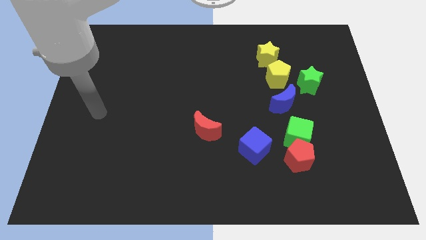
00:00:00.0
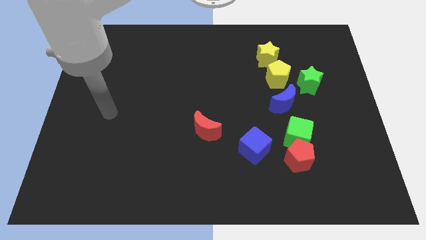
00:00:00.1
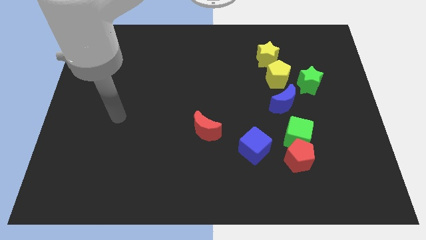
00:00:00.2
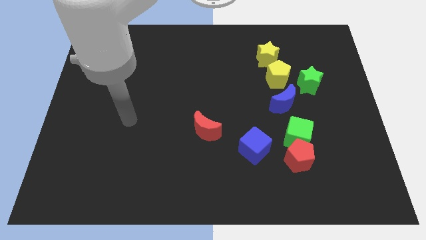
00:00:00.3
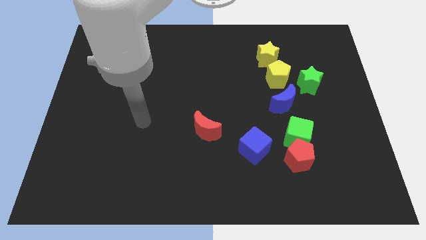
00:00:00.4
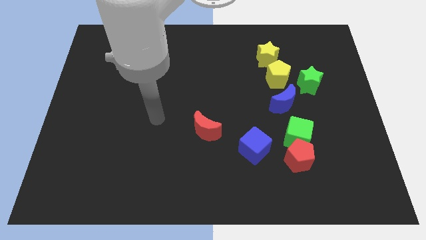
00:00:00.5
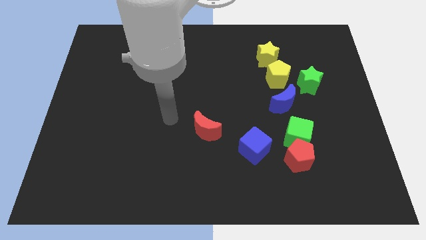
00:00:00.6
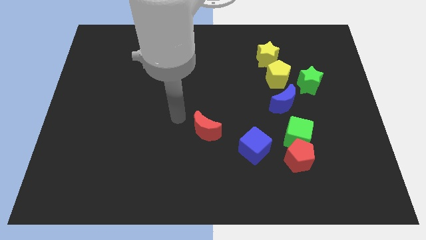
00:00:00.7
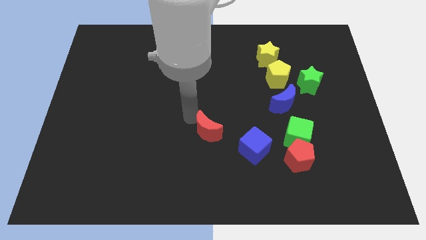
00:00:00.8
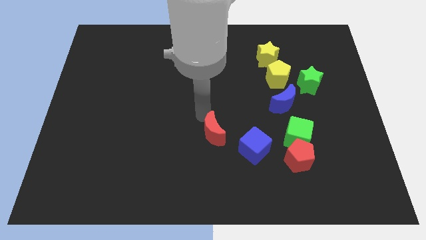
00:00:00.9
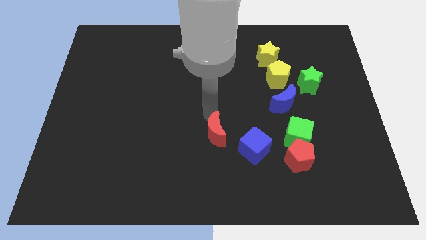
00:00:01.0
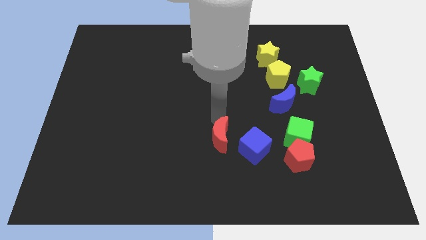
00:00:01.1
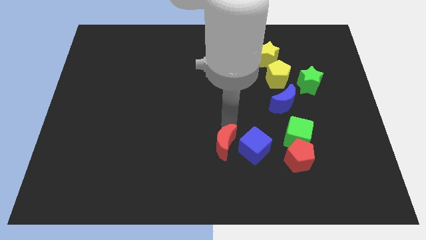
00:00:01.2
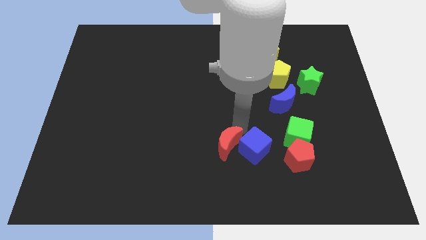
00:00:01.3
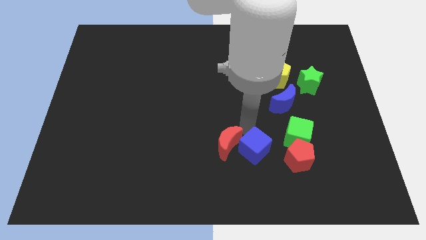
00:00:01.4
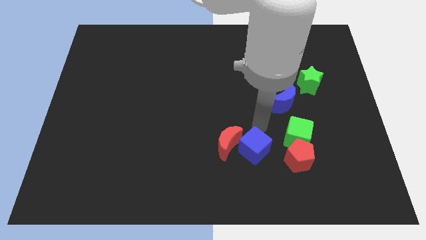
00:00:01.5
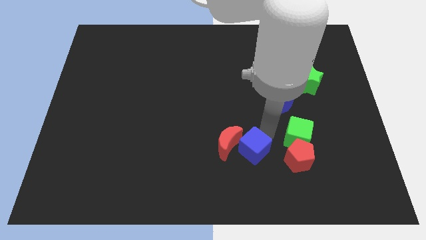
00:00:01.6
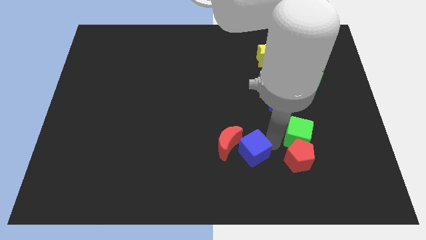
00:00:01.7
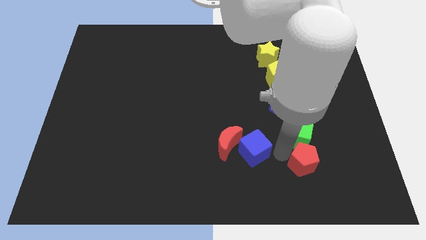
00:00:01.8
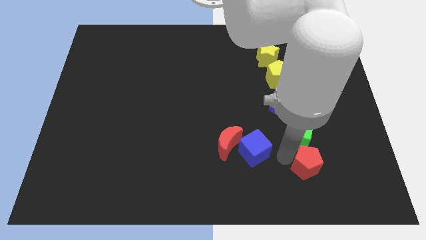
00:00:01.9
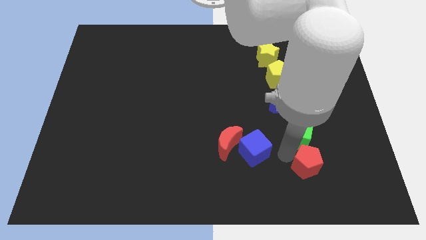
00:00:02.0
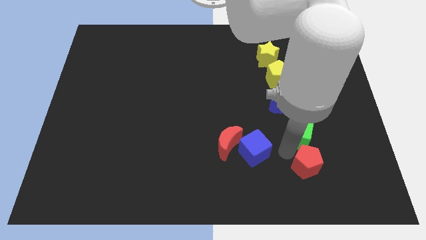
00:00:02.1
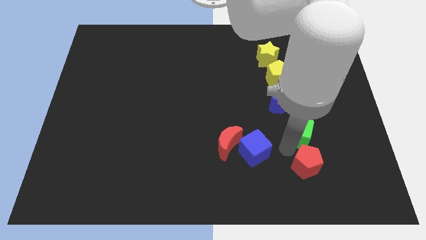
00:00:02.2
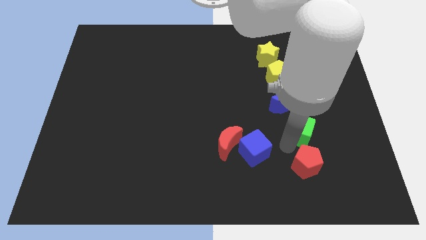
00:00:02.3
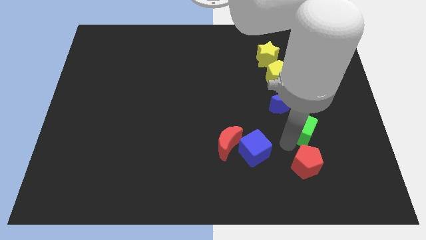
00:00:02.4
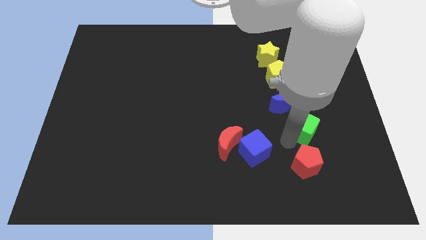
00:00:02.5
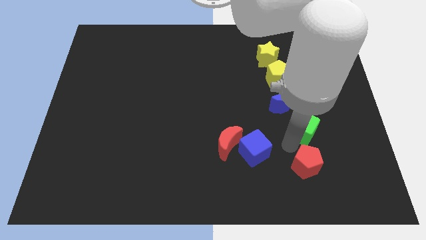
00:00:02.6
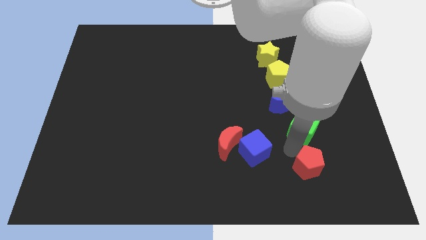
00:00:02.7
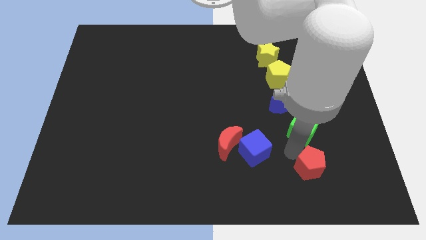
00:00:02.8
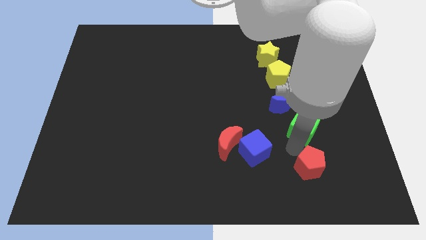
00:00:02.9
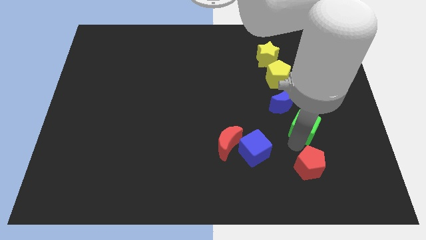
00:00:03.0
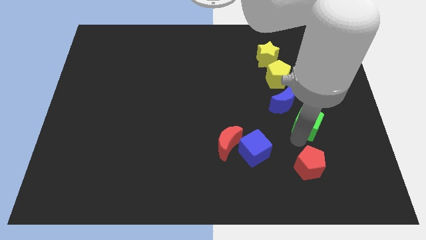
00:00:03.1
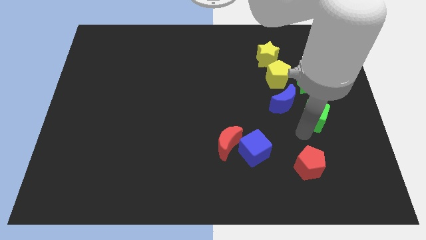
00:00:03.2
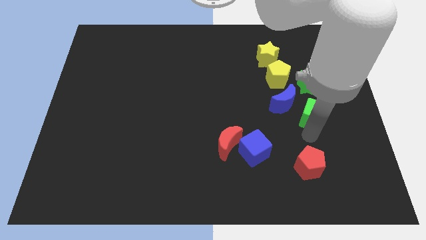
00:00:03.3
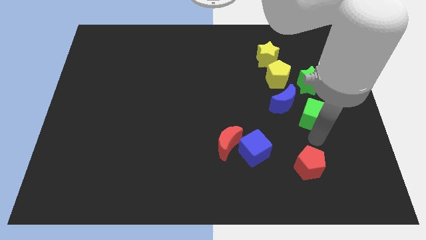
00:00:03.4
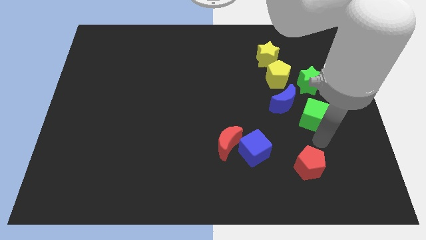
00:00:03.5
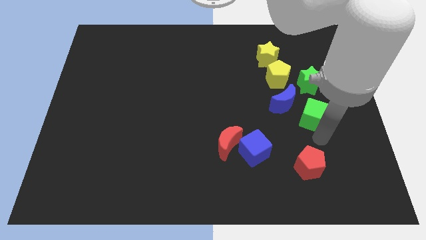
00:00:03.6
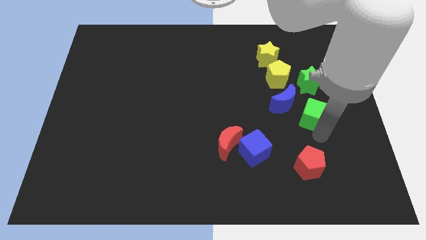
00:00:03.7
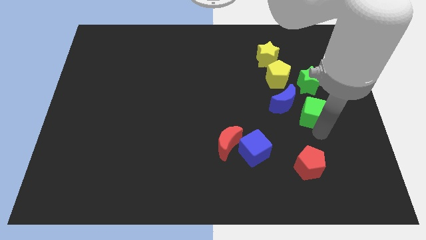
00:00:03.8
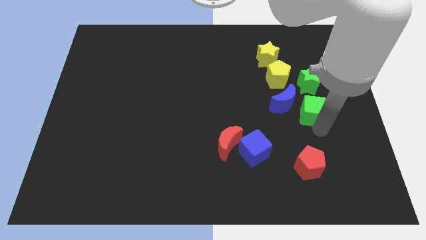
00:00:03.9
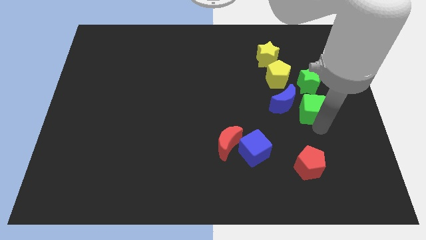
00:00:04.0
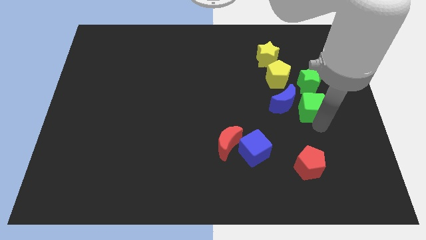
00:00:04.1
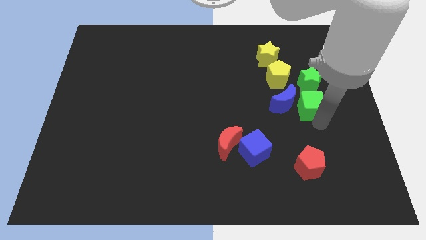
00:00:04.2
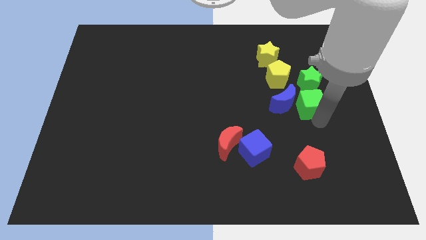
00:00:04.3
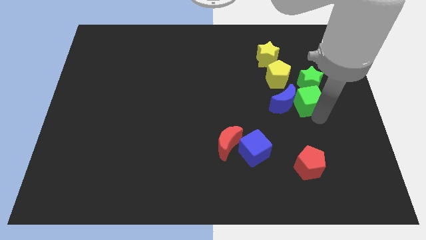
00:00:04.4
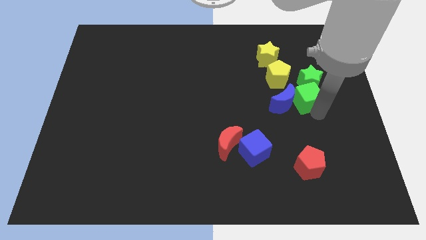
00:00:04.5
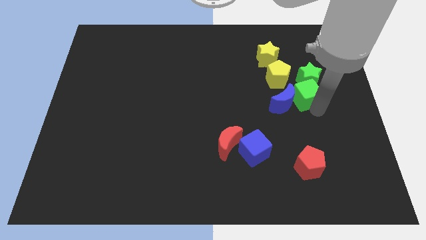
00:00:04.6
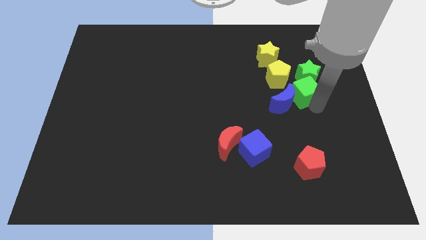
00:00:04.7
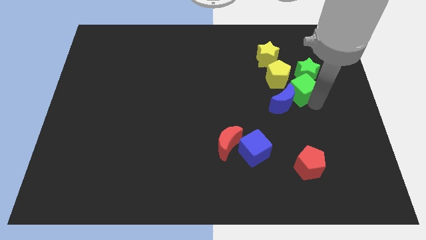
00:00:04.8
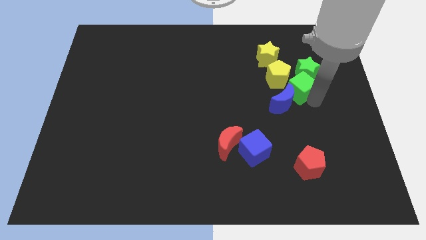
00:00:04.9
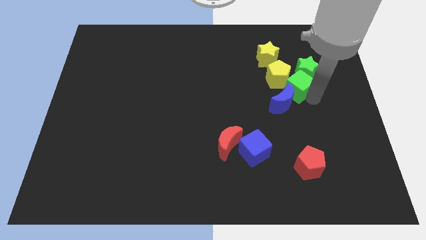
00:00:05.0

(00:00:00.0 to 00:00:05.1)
move the green cube to the yellow pentagon

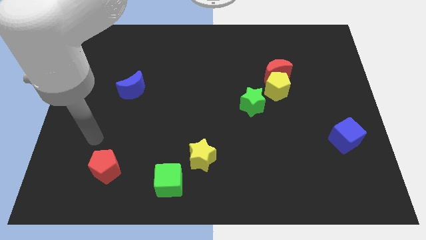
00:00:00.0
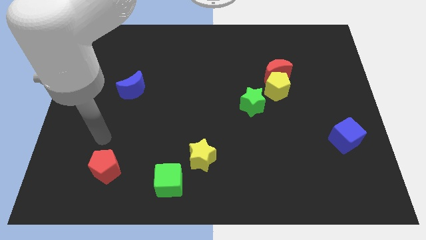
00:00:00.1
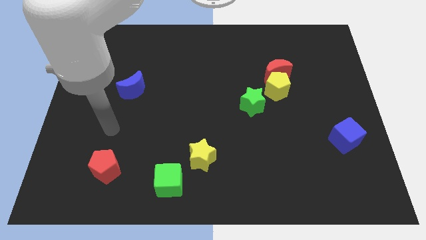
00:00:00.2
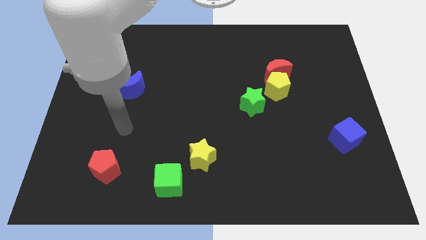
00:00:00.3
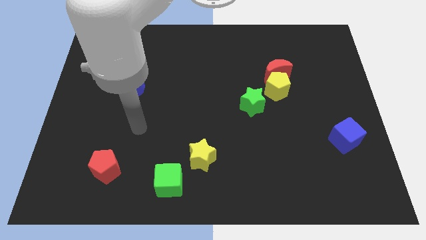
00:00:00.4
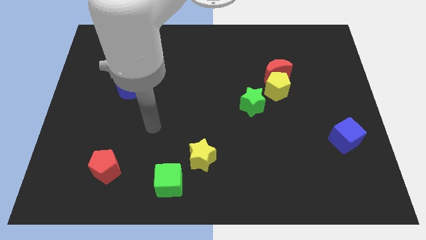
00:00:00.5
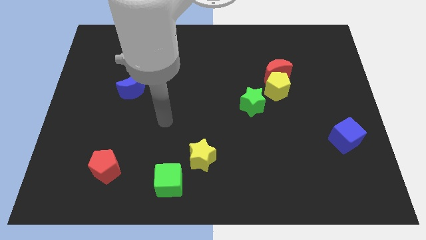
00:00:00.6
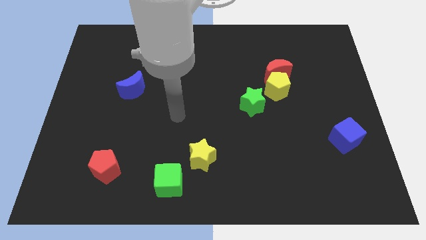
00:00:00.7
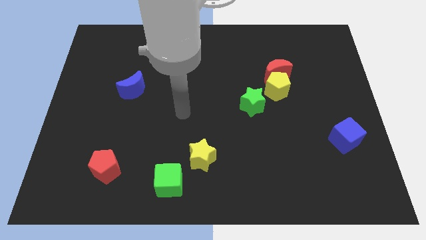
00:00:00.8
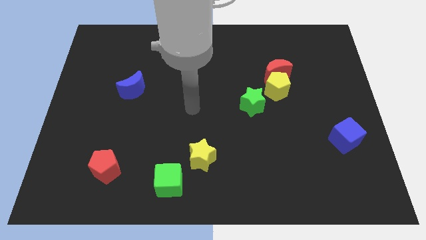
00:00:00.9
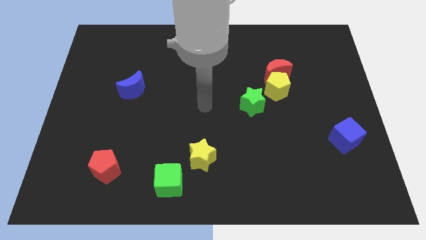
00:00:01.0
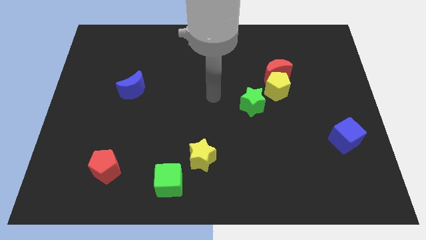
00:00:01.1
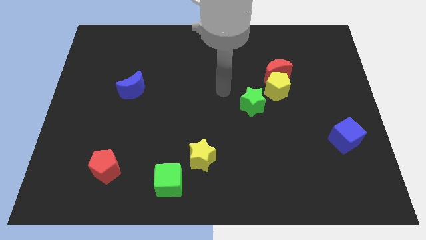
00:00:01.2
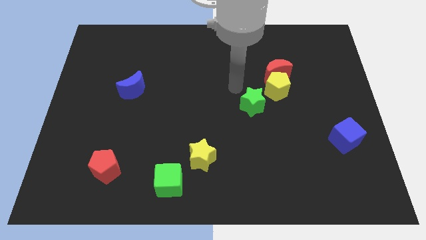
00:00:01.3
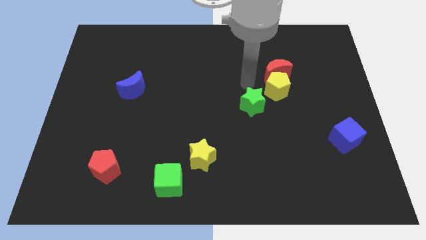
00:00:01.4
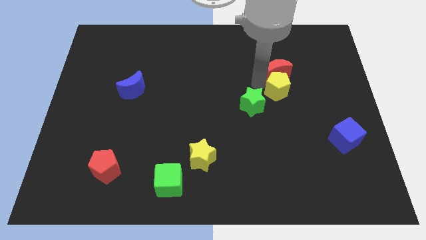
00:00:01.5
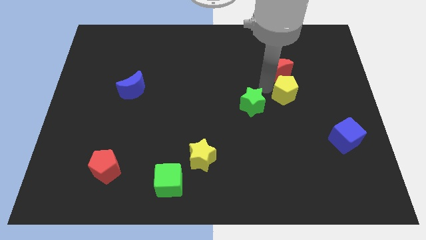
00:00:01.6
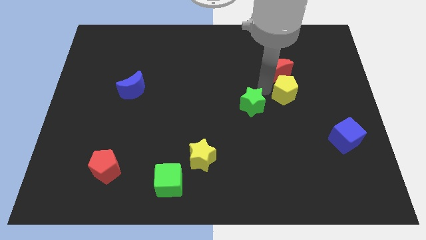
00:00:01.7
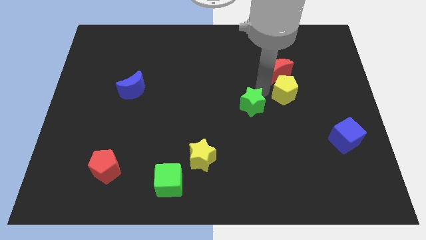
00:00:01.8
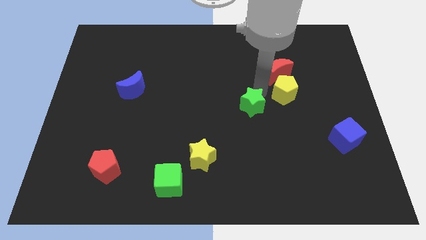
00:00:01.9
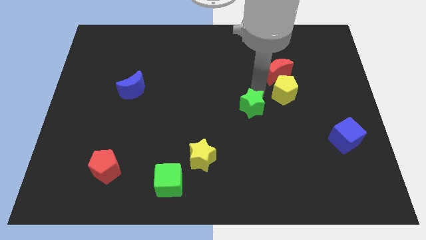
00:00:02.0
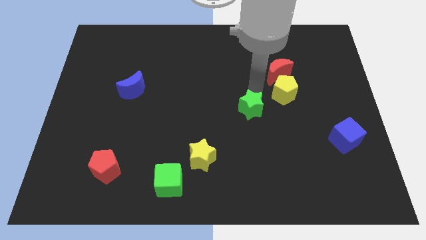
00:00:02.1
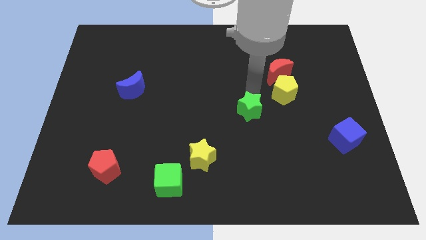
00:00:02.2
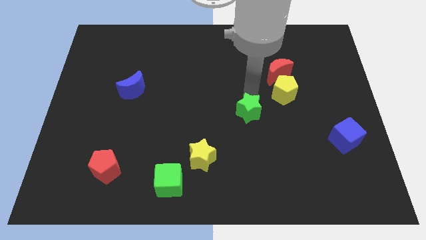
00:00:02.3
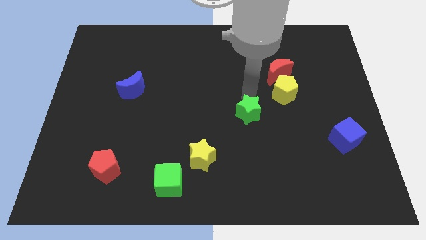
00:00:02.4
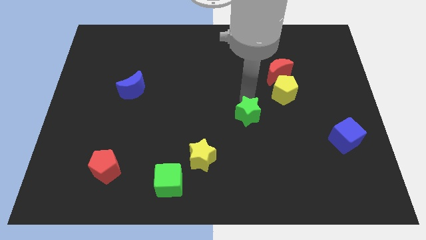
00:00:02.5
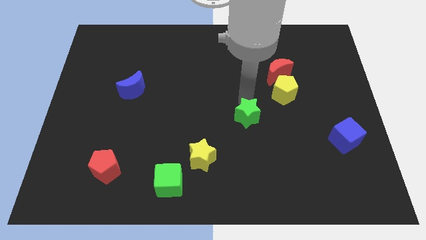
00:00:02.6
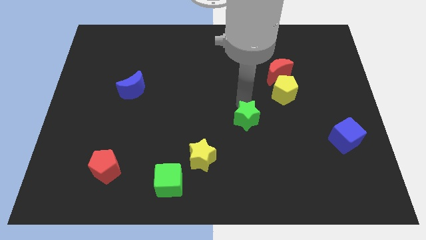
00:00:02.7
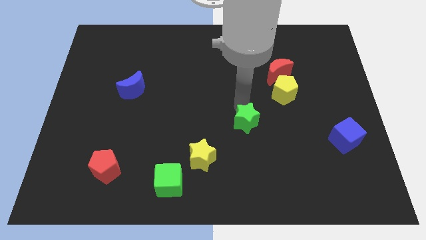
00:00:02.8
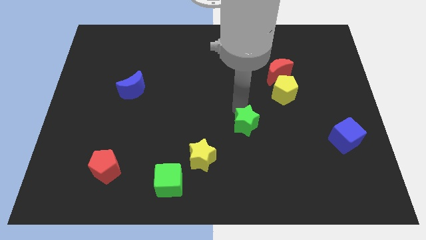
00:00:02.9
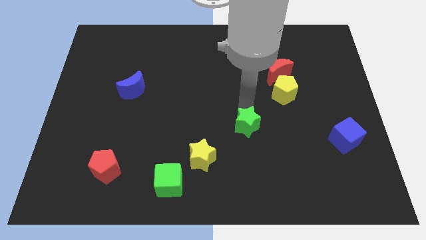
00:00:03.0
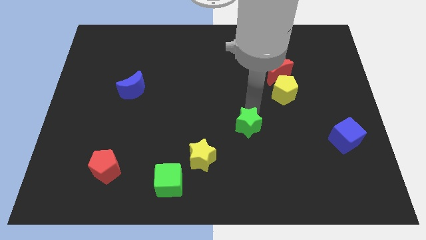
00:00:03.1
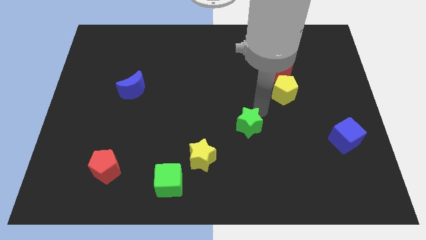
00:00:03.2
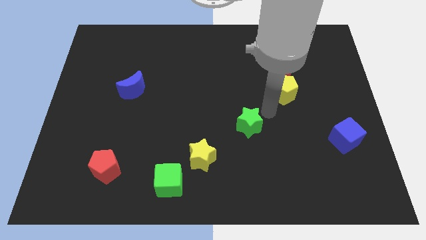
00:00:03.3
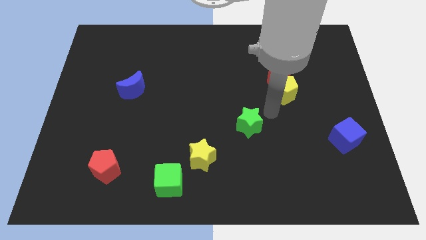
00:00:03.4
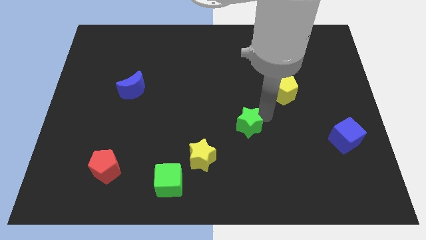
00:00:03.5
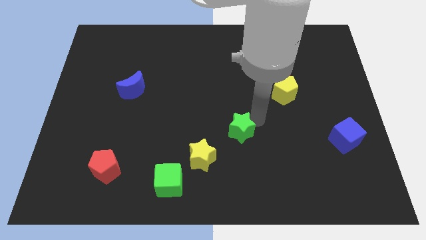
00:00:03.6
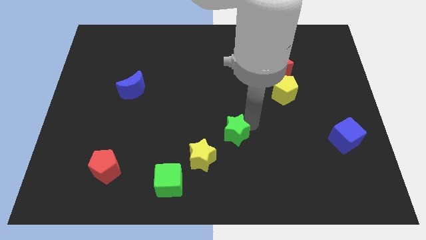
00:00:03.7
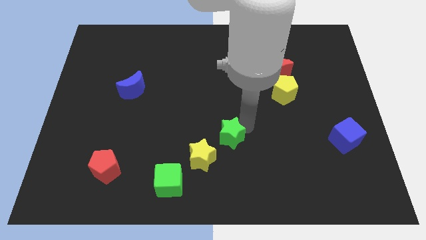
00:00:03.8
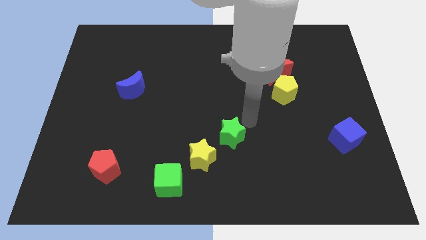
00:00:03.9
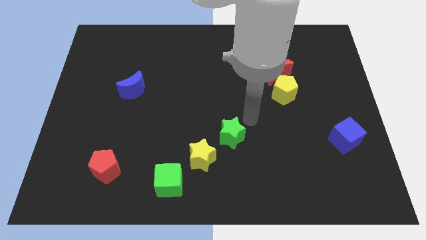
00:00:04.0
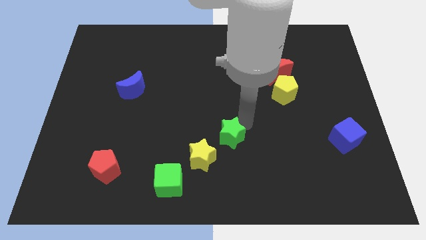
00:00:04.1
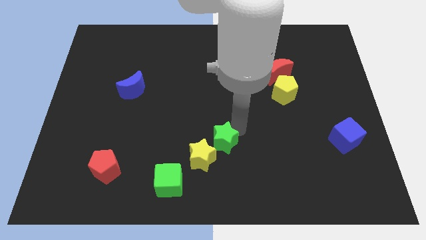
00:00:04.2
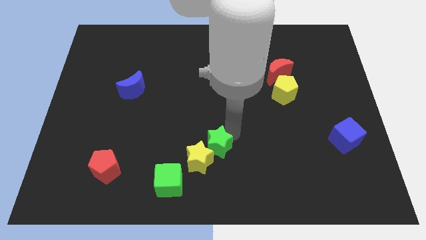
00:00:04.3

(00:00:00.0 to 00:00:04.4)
put the green star to the yellow star
